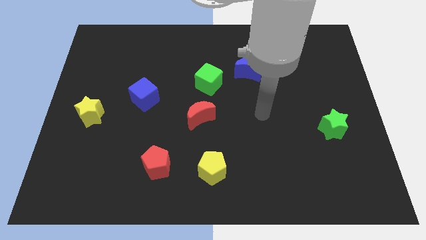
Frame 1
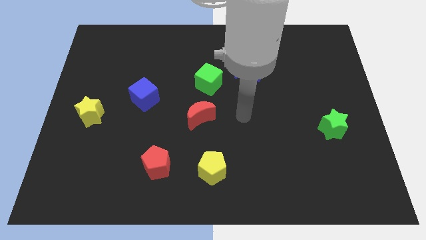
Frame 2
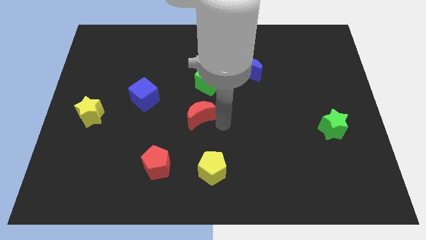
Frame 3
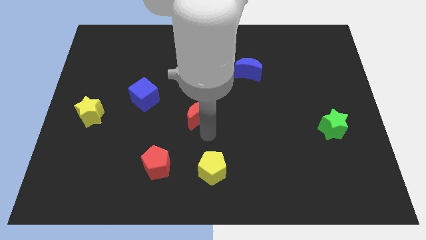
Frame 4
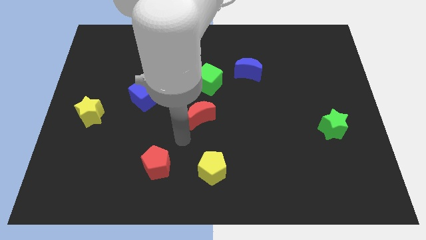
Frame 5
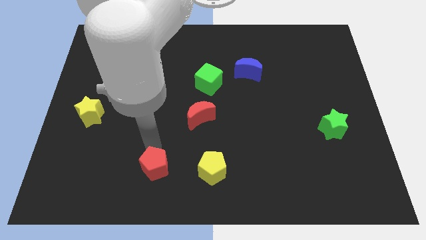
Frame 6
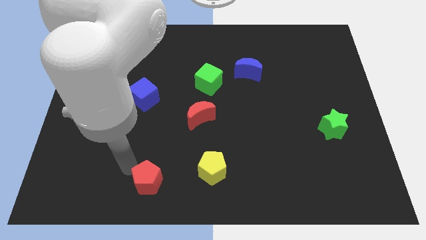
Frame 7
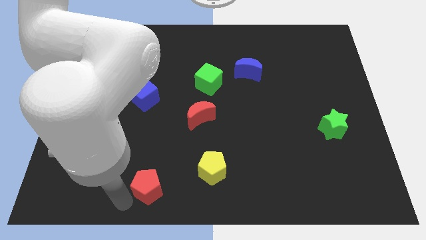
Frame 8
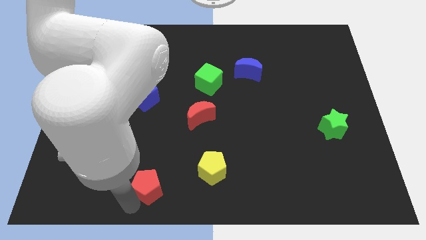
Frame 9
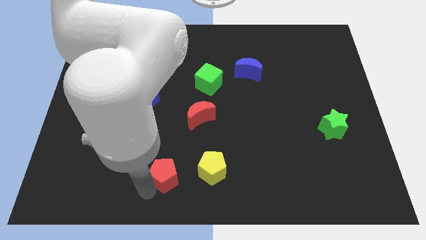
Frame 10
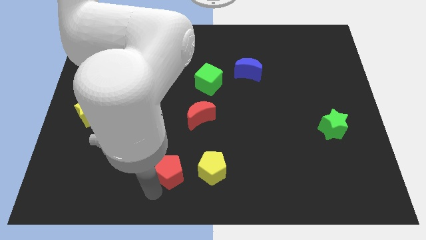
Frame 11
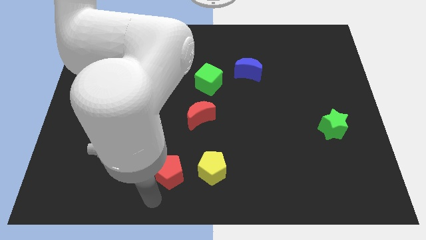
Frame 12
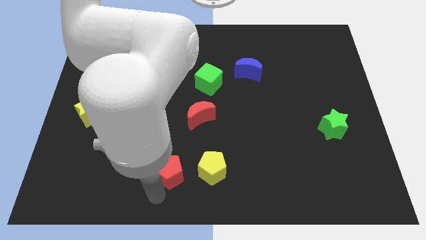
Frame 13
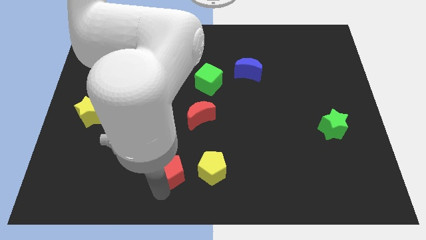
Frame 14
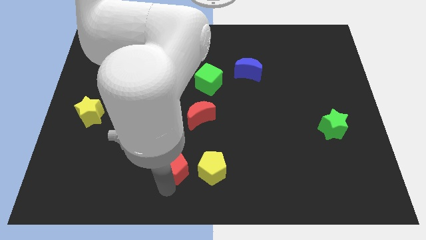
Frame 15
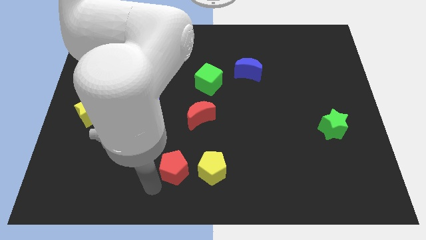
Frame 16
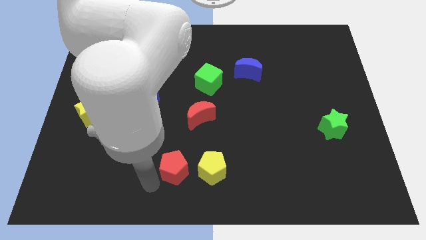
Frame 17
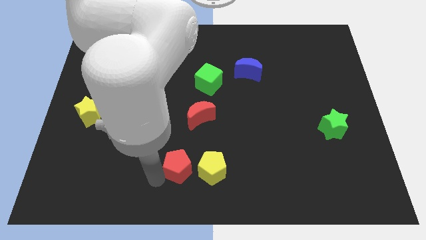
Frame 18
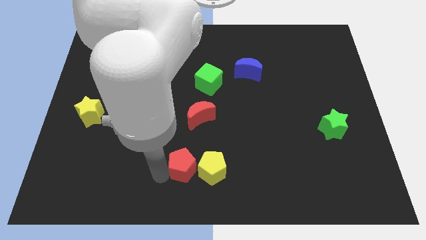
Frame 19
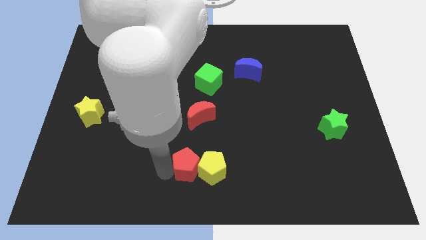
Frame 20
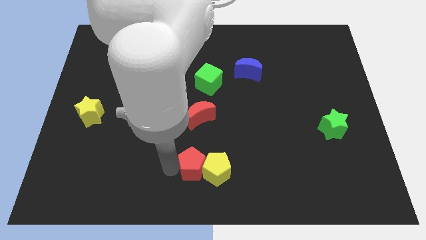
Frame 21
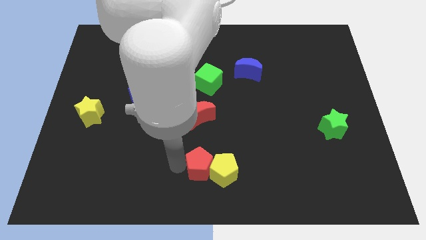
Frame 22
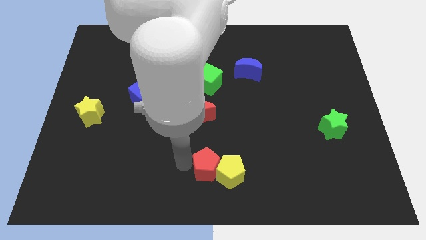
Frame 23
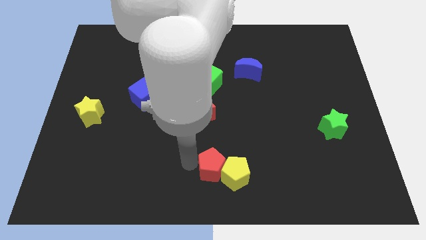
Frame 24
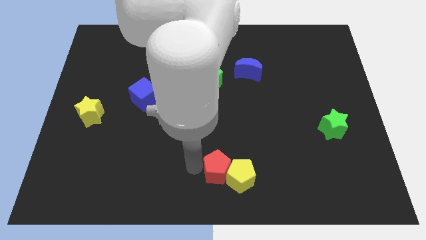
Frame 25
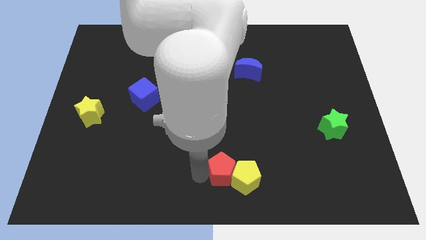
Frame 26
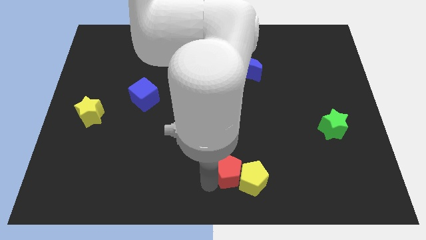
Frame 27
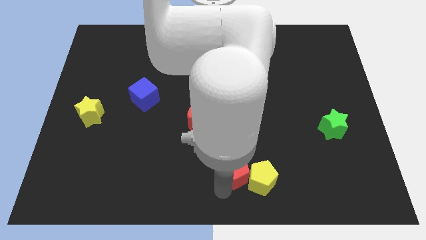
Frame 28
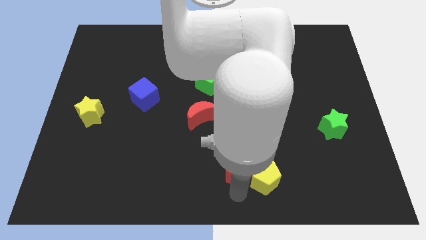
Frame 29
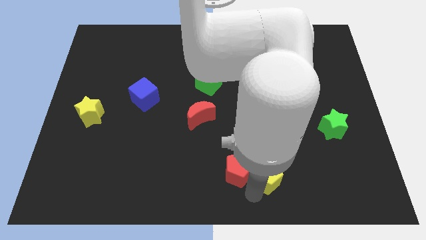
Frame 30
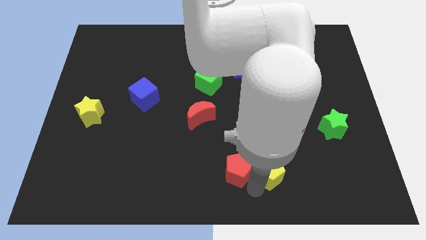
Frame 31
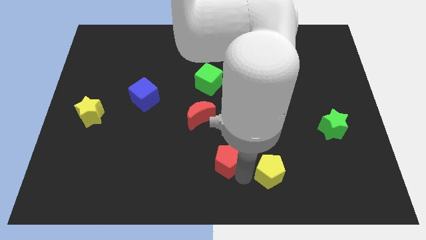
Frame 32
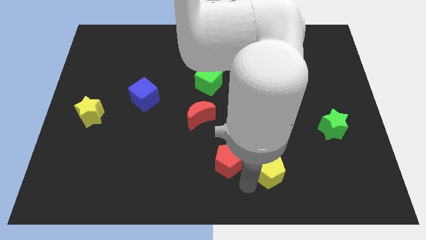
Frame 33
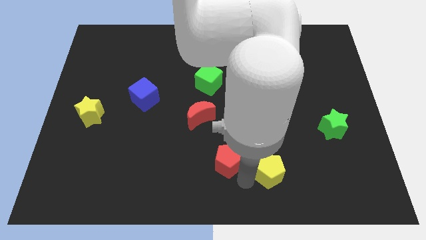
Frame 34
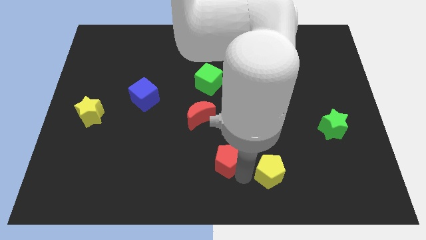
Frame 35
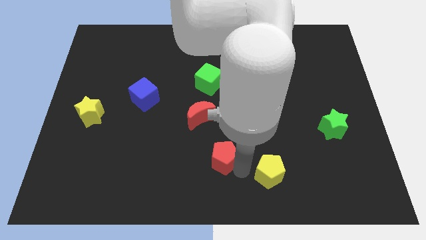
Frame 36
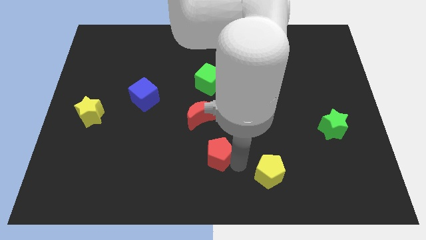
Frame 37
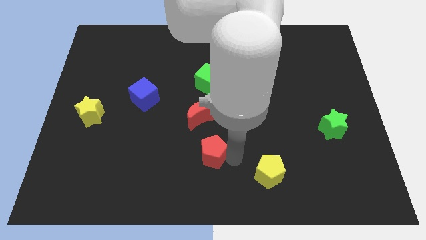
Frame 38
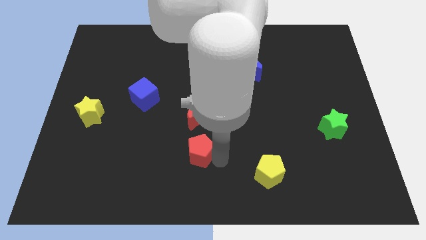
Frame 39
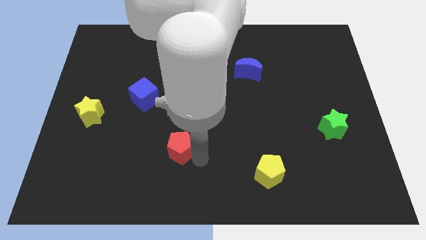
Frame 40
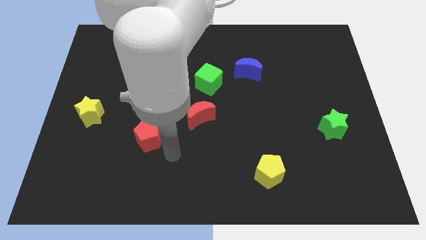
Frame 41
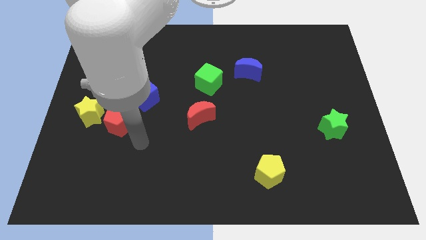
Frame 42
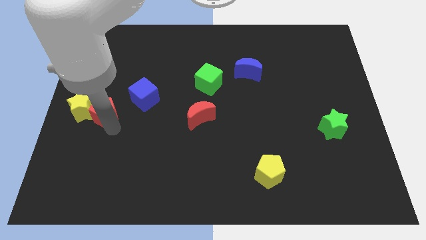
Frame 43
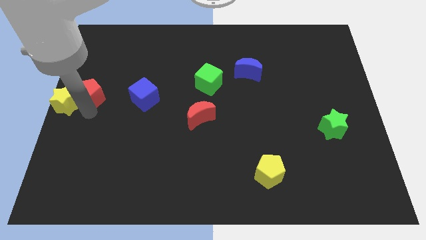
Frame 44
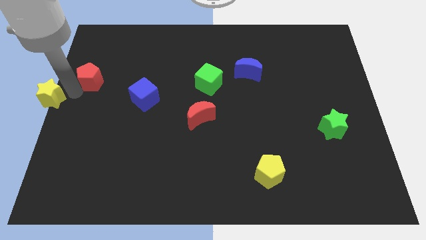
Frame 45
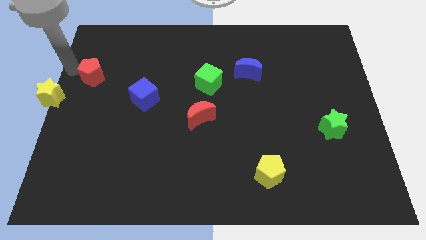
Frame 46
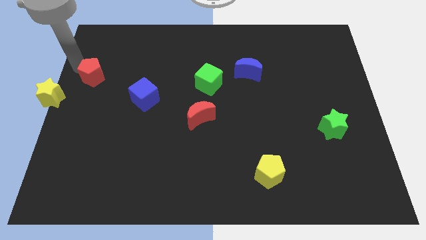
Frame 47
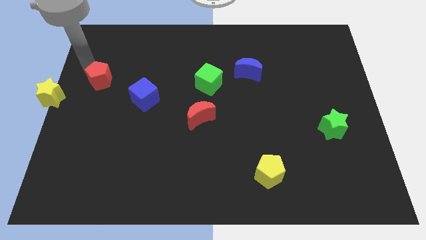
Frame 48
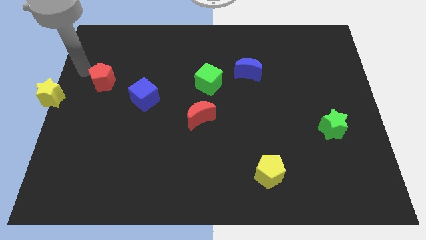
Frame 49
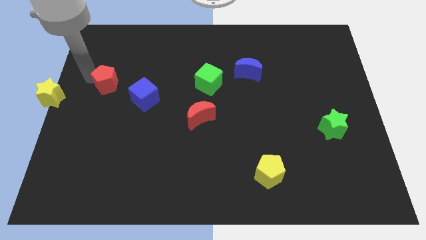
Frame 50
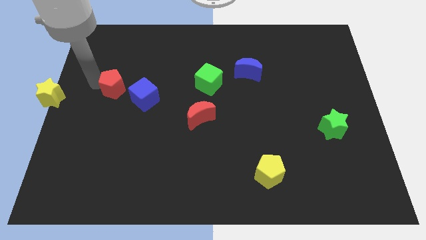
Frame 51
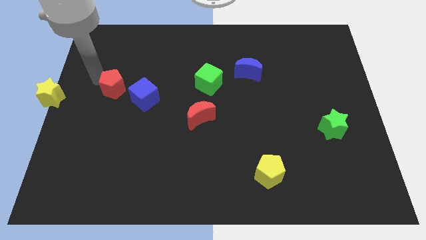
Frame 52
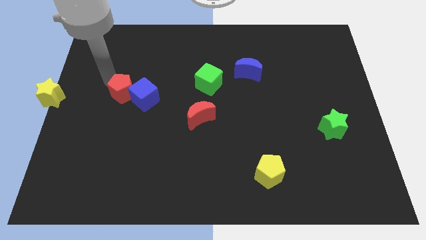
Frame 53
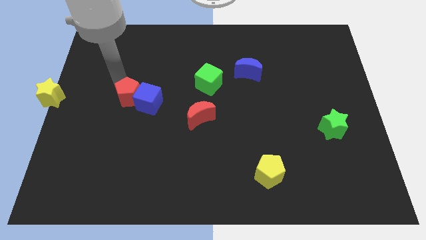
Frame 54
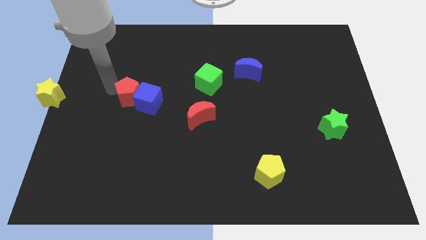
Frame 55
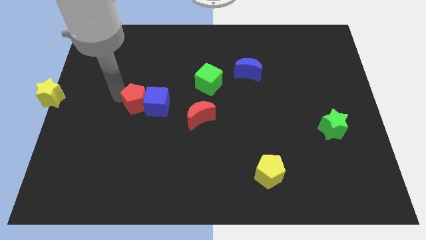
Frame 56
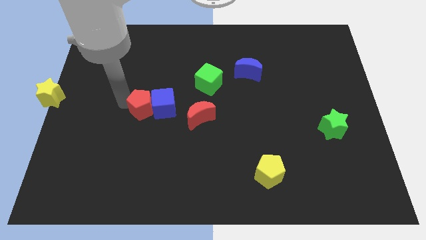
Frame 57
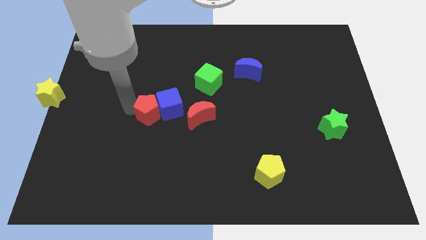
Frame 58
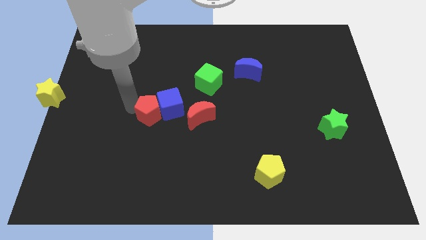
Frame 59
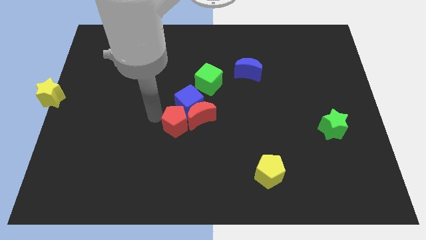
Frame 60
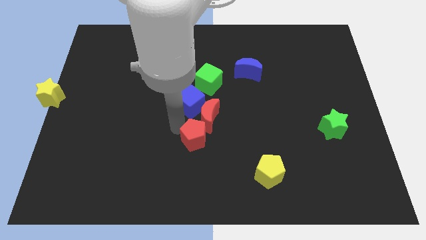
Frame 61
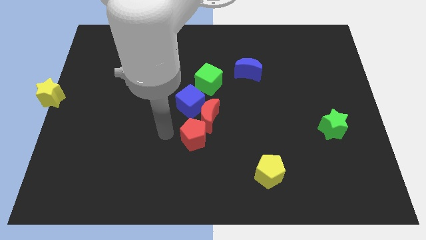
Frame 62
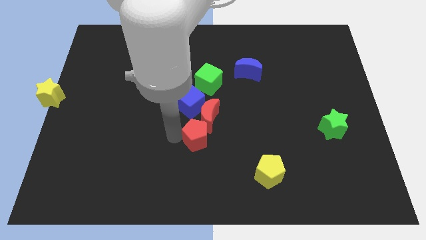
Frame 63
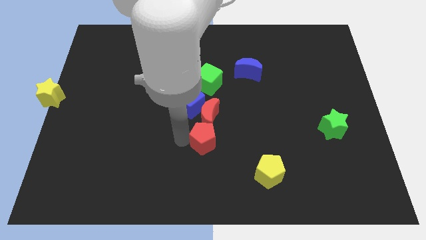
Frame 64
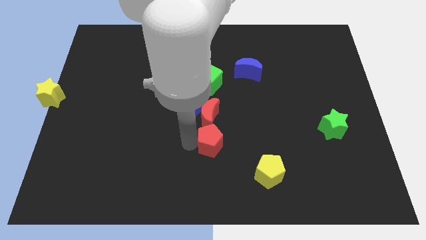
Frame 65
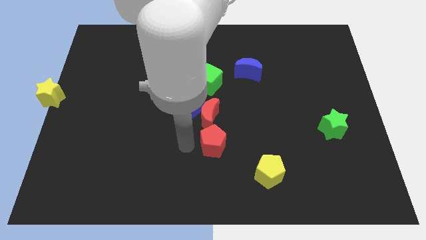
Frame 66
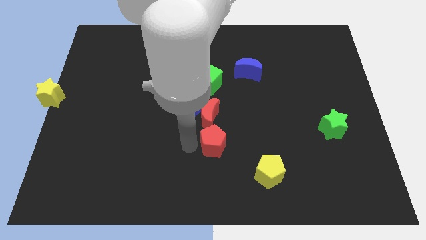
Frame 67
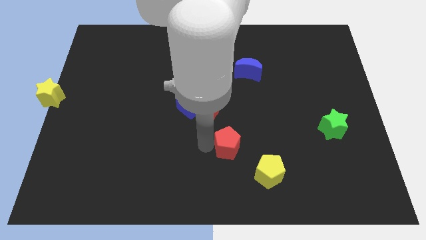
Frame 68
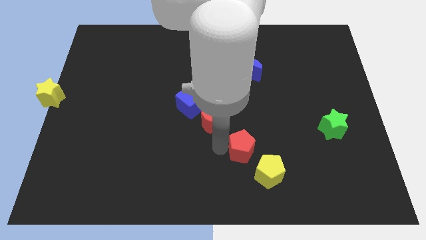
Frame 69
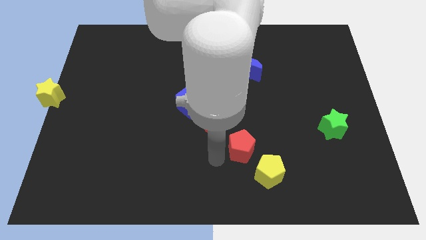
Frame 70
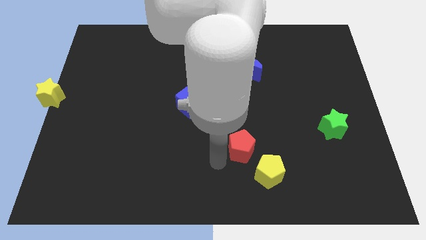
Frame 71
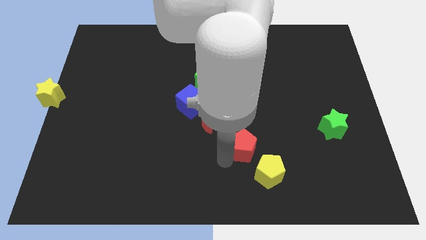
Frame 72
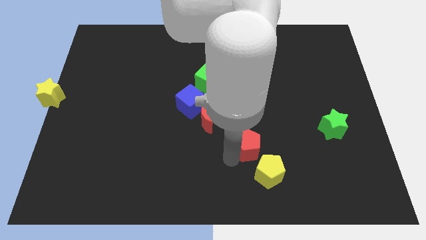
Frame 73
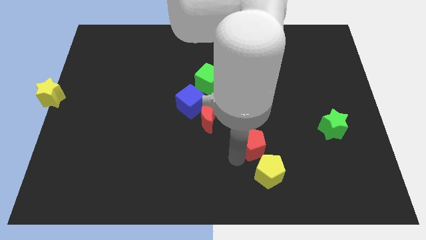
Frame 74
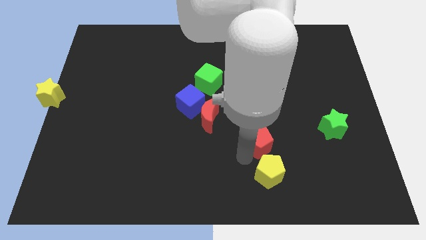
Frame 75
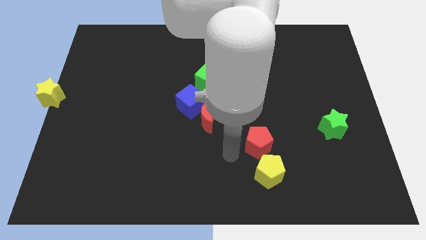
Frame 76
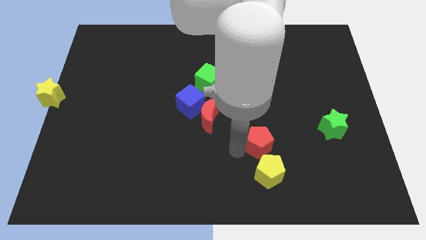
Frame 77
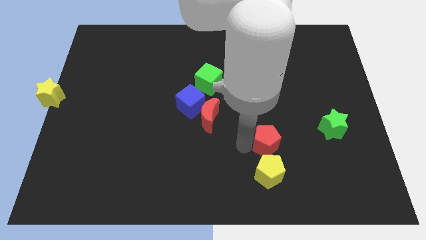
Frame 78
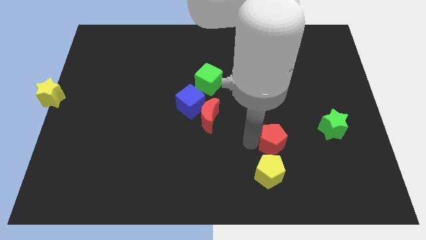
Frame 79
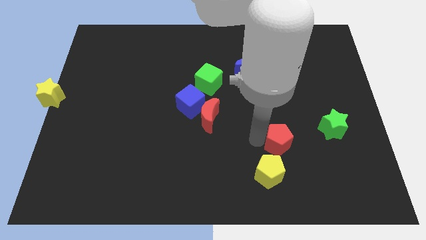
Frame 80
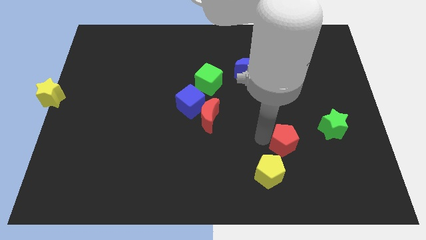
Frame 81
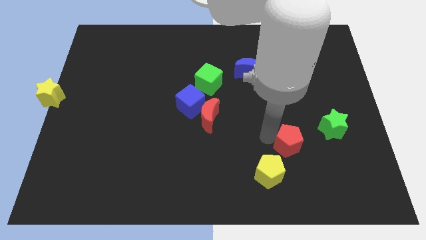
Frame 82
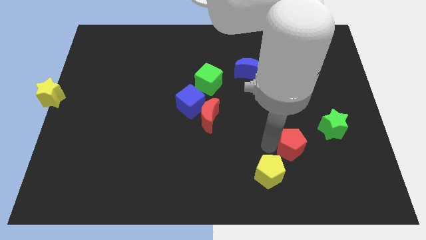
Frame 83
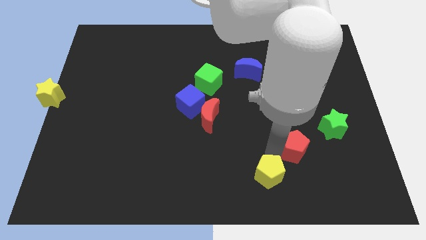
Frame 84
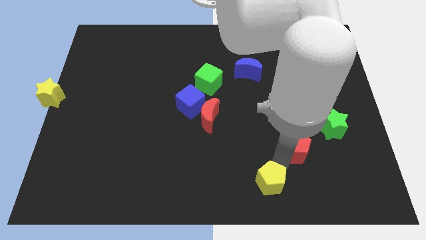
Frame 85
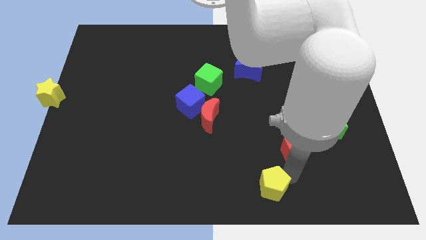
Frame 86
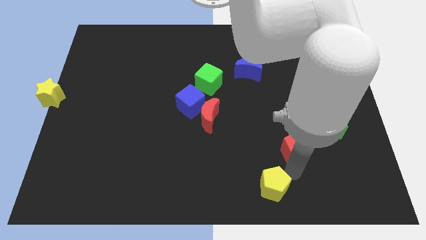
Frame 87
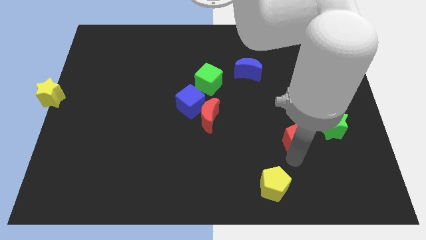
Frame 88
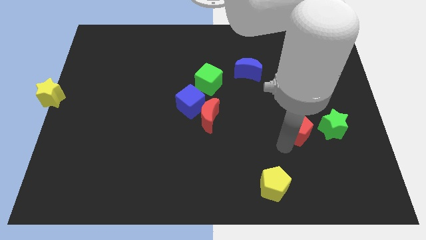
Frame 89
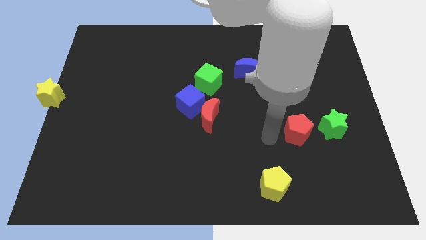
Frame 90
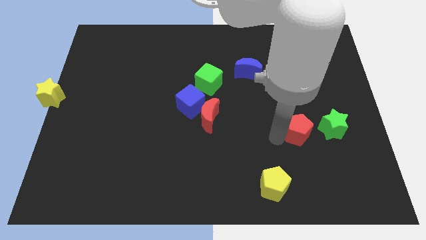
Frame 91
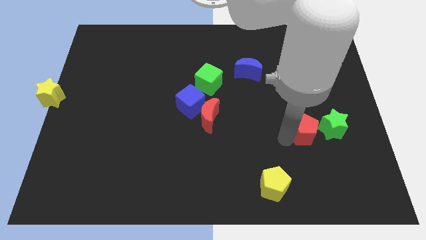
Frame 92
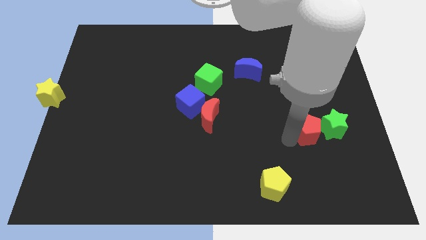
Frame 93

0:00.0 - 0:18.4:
move the red pentagon towards the green star
